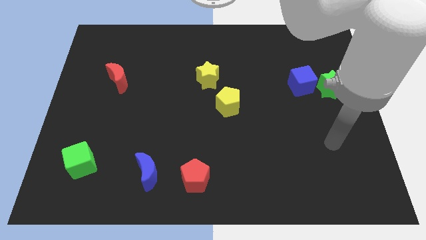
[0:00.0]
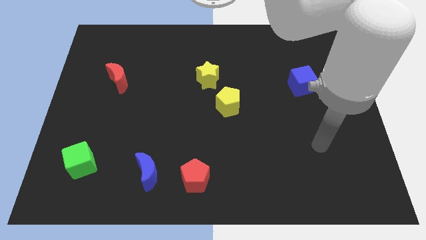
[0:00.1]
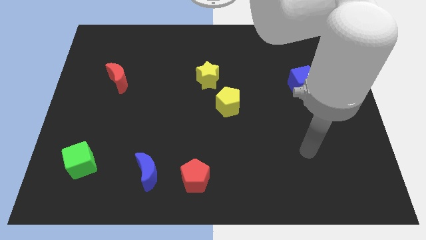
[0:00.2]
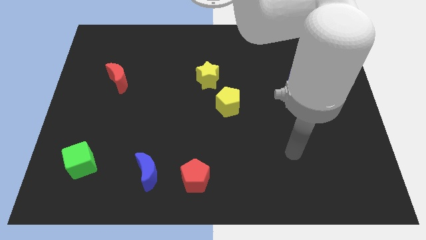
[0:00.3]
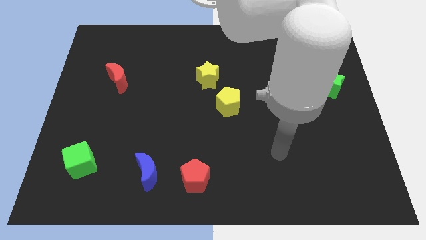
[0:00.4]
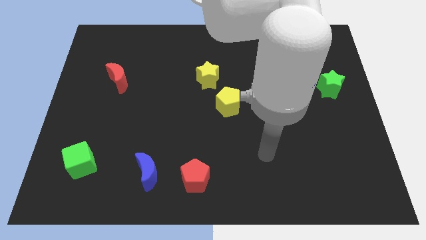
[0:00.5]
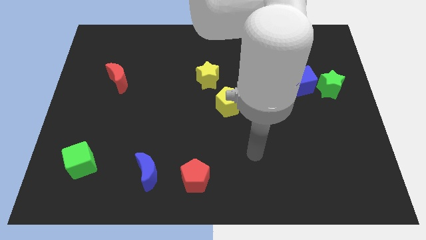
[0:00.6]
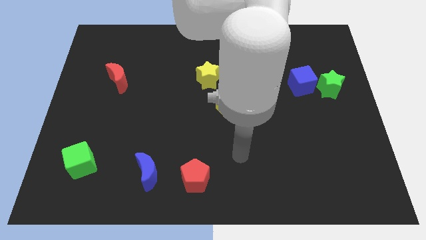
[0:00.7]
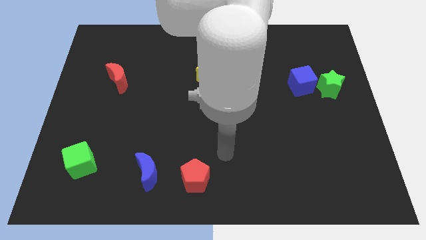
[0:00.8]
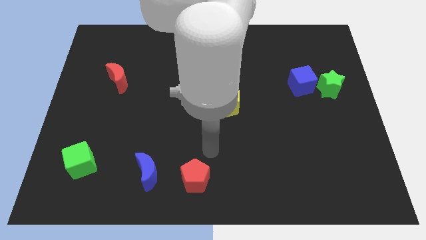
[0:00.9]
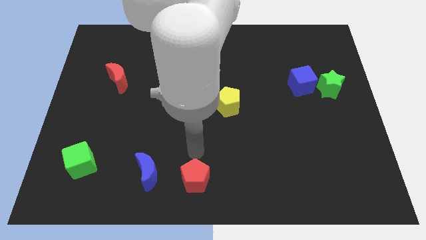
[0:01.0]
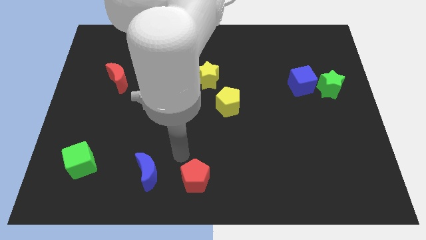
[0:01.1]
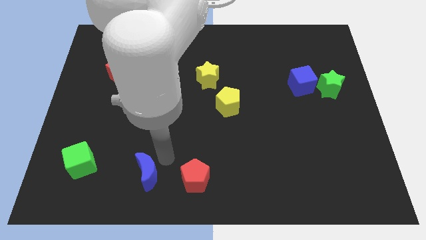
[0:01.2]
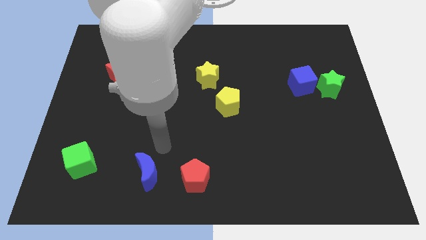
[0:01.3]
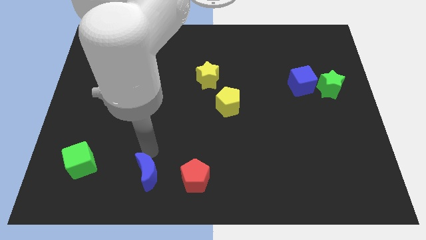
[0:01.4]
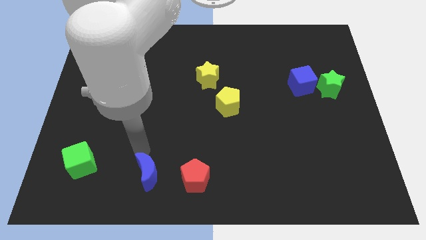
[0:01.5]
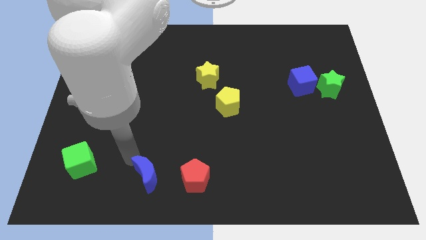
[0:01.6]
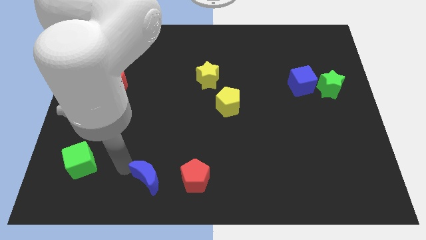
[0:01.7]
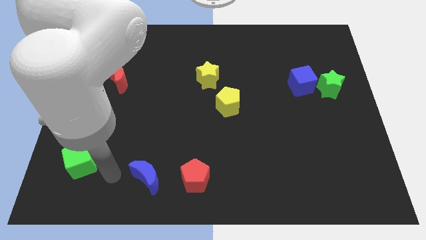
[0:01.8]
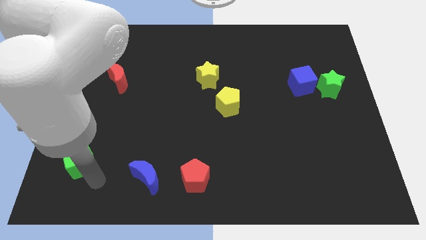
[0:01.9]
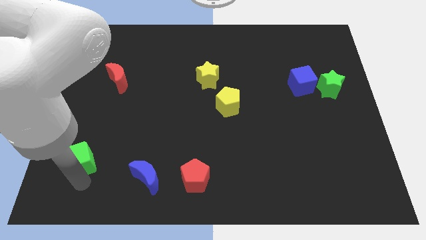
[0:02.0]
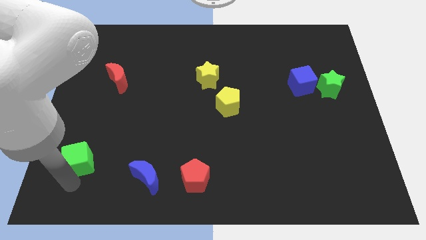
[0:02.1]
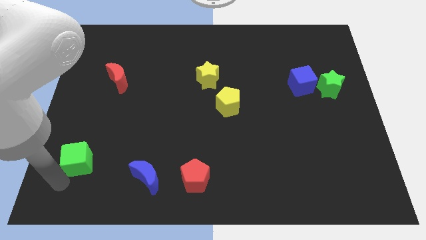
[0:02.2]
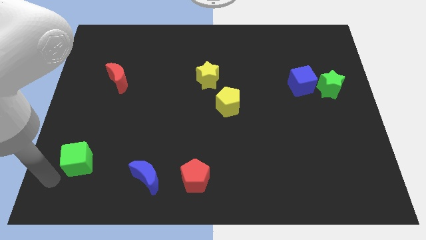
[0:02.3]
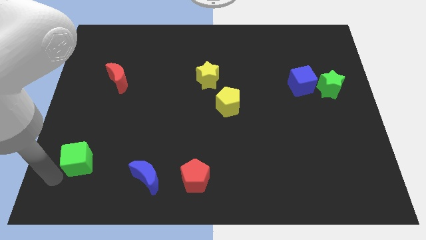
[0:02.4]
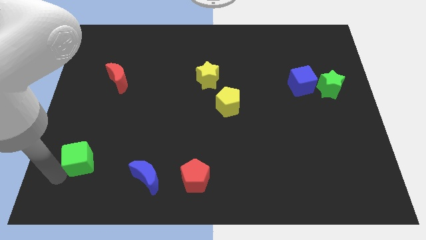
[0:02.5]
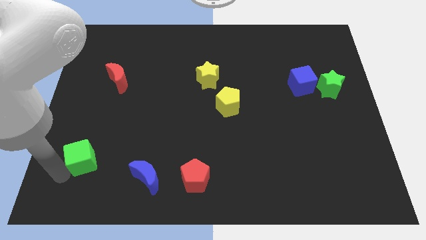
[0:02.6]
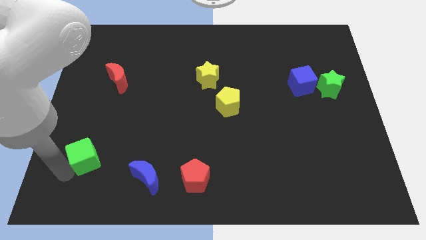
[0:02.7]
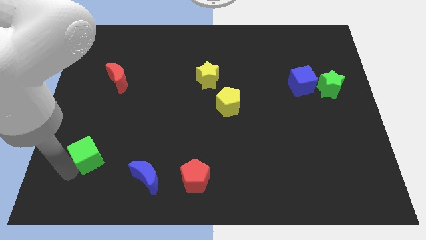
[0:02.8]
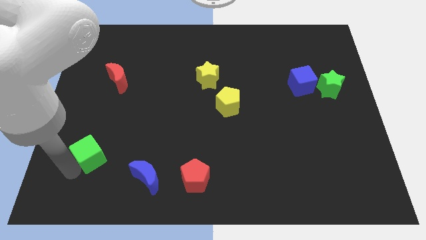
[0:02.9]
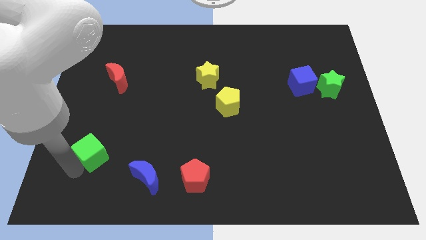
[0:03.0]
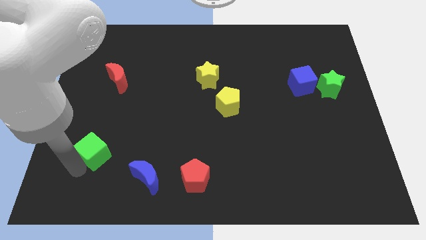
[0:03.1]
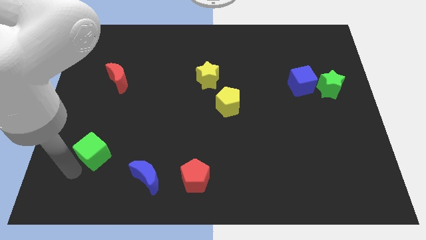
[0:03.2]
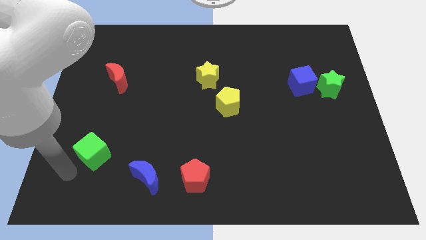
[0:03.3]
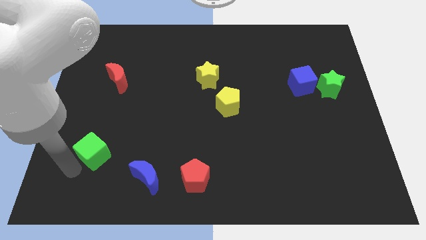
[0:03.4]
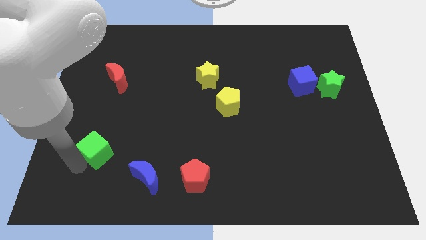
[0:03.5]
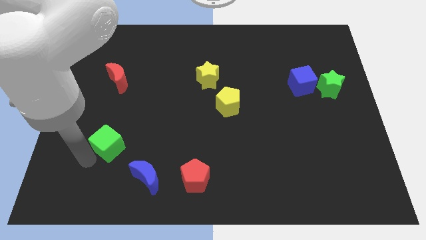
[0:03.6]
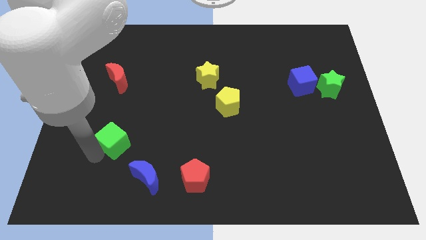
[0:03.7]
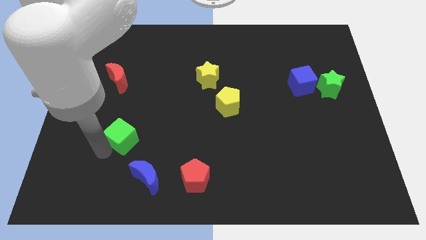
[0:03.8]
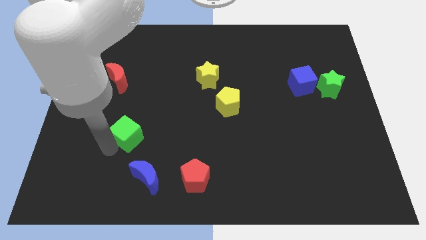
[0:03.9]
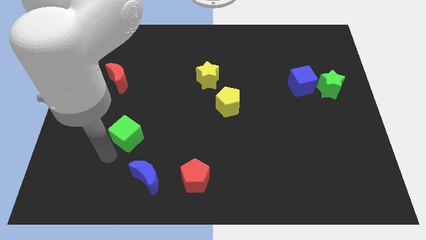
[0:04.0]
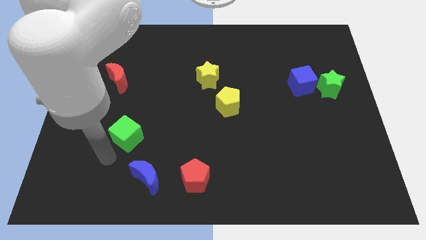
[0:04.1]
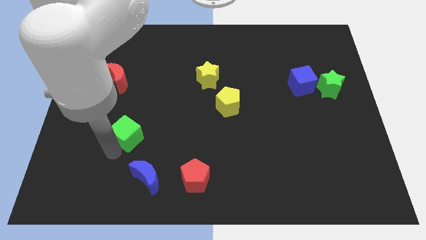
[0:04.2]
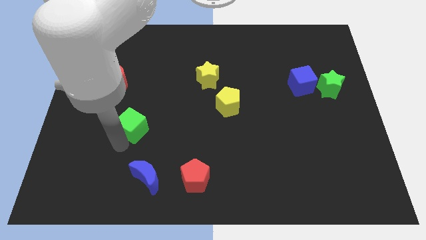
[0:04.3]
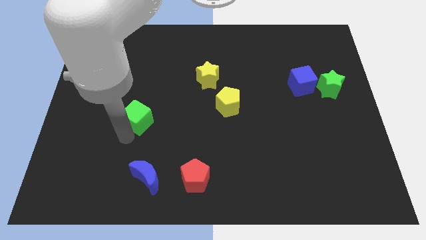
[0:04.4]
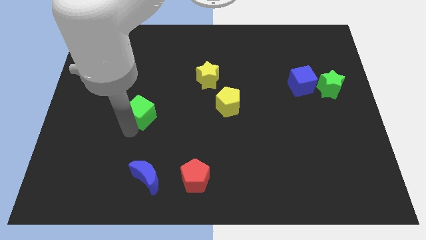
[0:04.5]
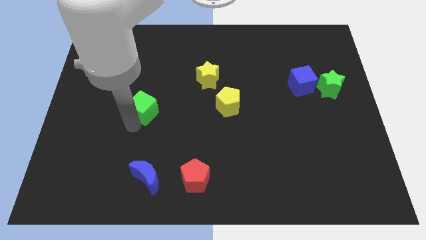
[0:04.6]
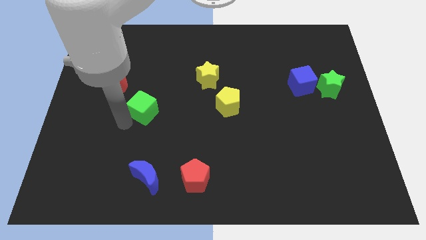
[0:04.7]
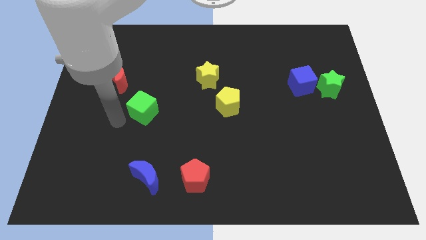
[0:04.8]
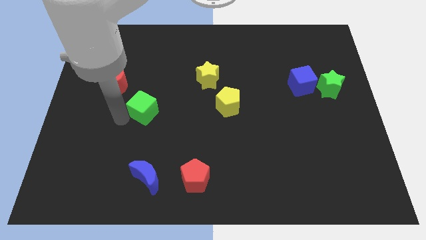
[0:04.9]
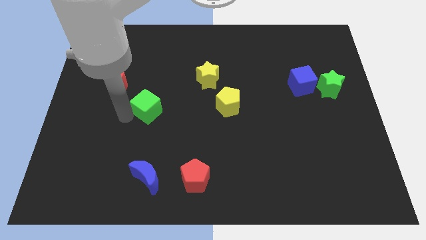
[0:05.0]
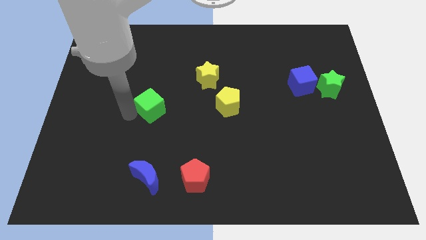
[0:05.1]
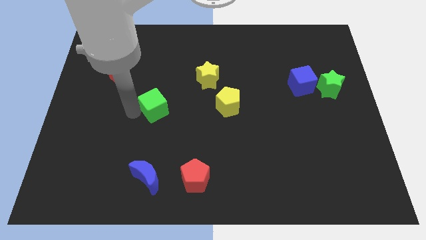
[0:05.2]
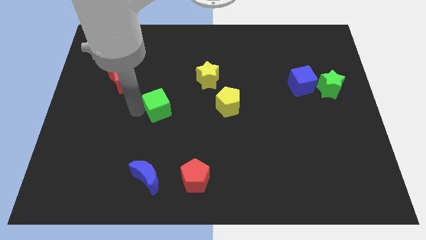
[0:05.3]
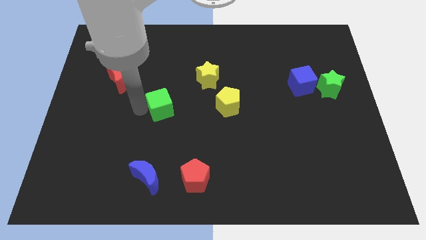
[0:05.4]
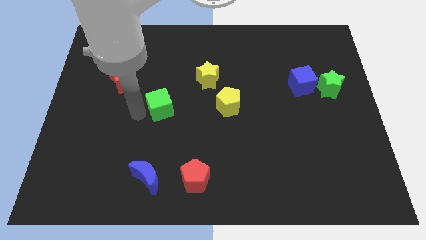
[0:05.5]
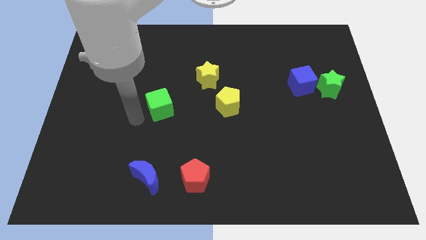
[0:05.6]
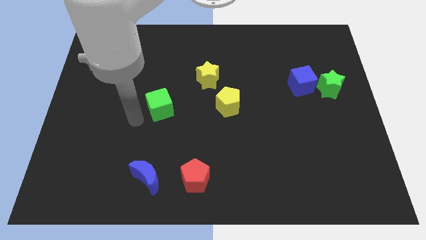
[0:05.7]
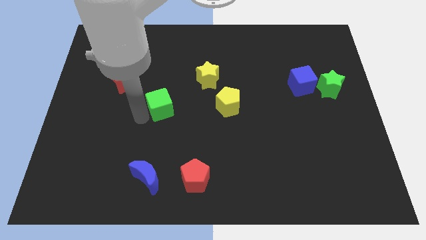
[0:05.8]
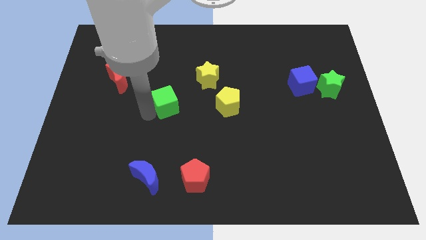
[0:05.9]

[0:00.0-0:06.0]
move the green cube to the bottom left side of the yellow star

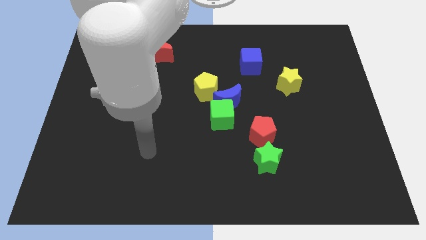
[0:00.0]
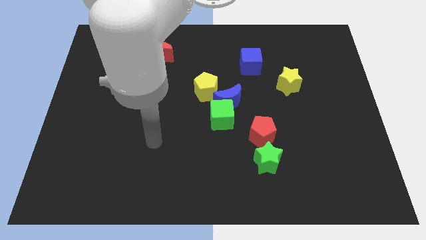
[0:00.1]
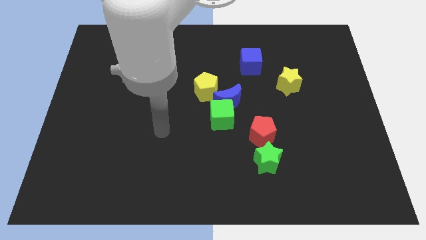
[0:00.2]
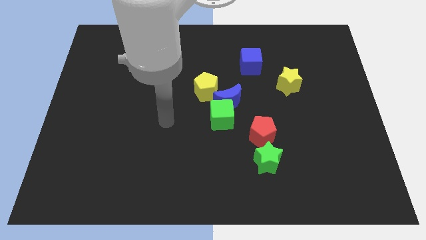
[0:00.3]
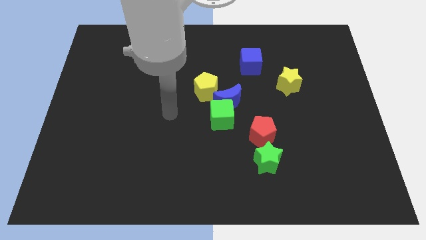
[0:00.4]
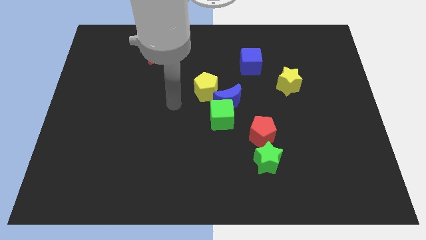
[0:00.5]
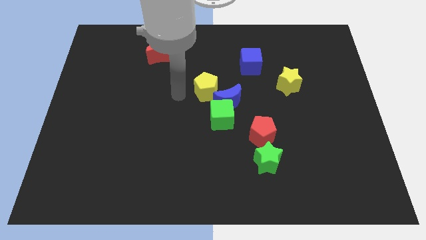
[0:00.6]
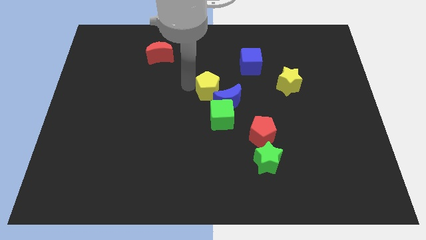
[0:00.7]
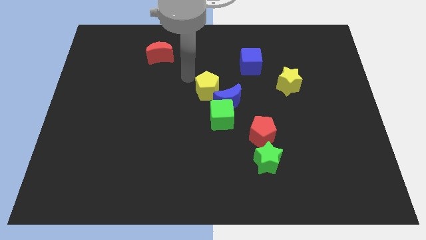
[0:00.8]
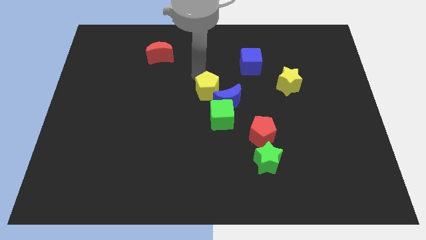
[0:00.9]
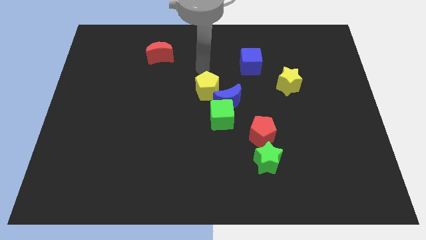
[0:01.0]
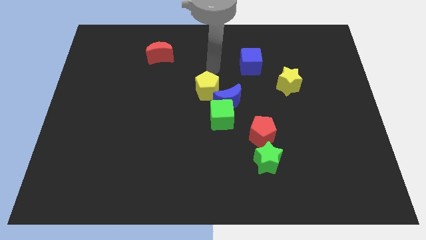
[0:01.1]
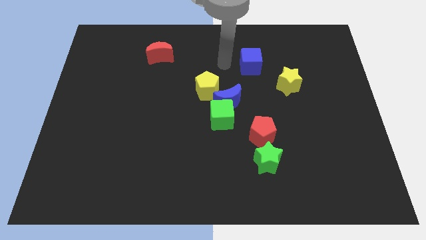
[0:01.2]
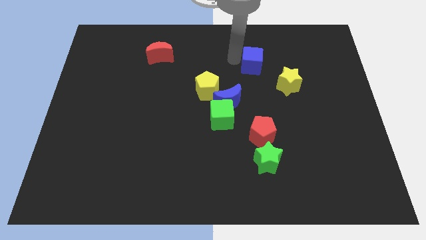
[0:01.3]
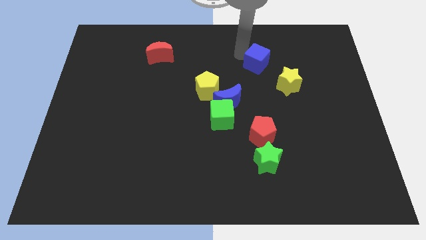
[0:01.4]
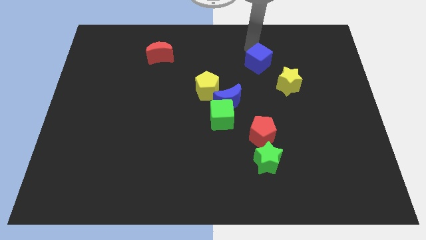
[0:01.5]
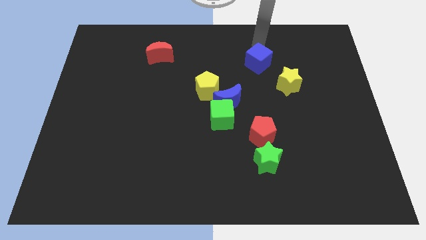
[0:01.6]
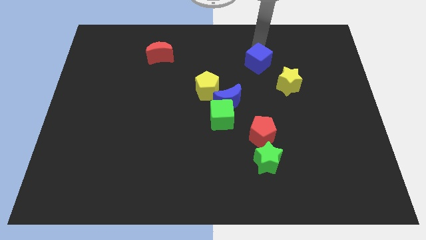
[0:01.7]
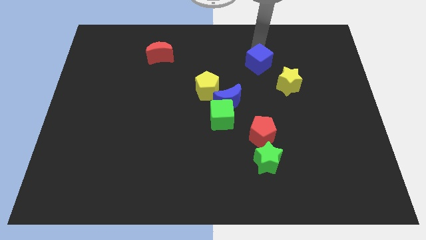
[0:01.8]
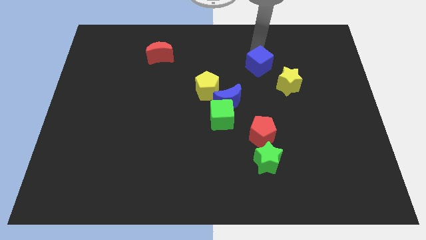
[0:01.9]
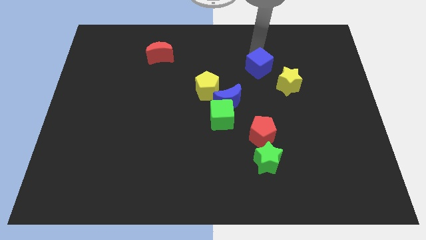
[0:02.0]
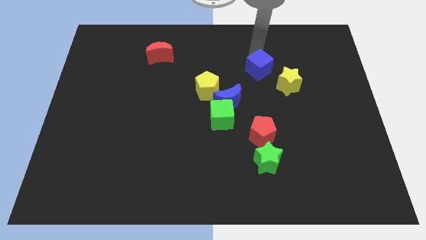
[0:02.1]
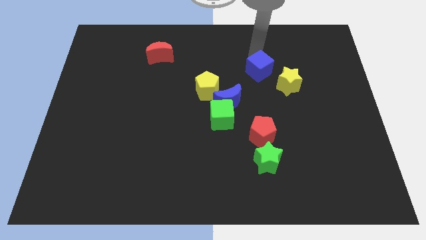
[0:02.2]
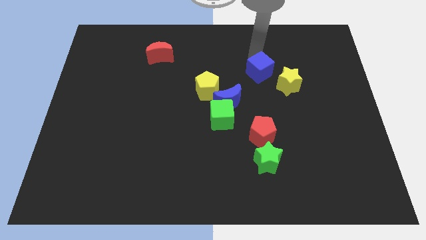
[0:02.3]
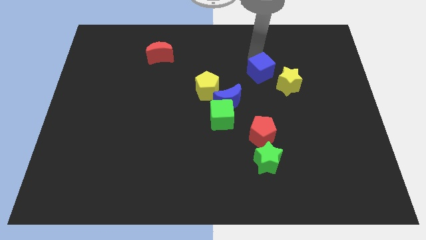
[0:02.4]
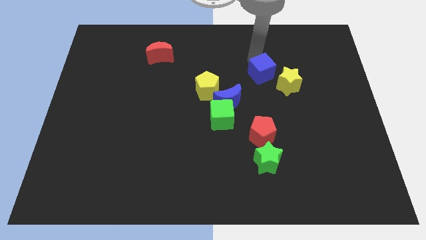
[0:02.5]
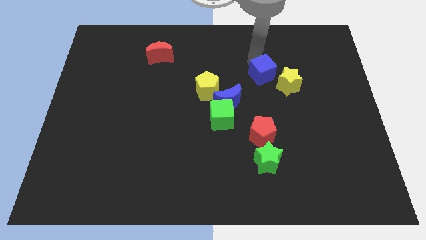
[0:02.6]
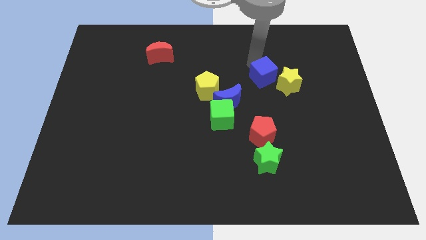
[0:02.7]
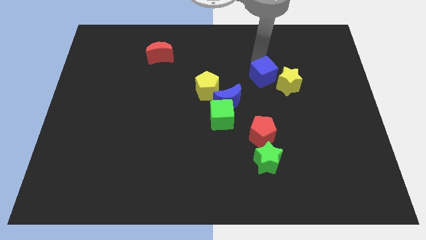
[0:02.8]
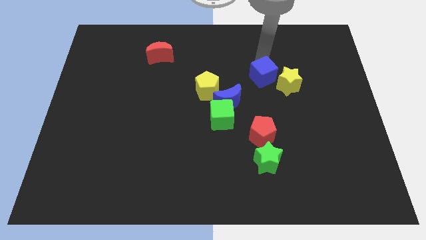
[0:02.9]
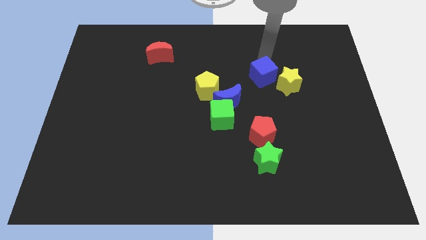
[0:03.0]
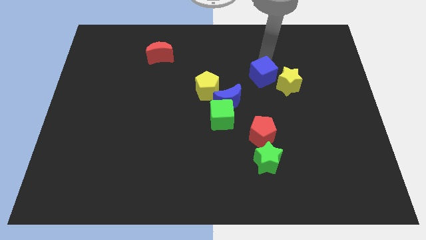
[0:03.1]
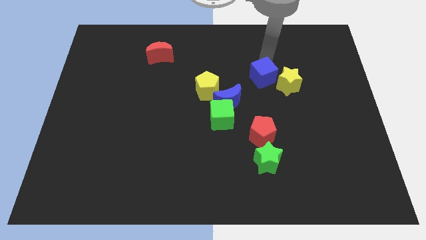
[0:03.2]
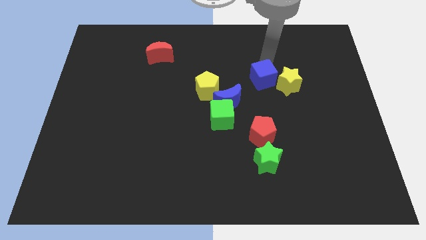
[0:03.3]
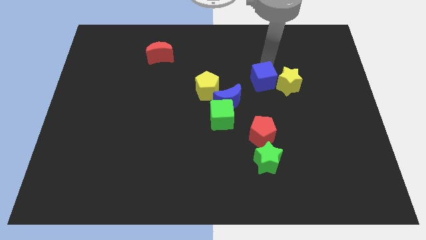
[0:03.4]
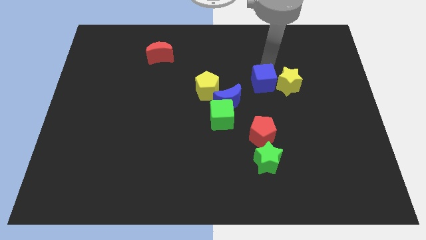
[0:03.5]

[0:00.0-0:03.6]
push the blue cube to the top of the red pentagon
